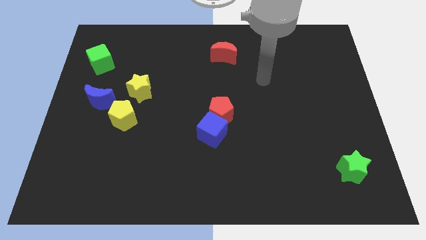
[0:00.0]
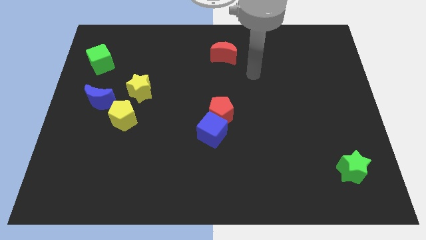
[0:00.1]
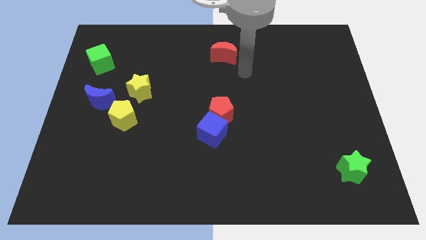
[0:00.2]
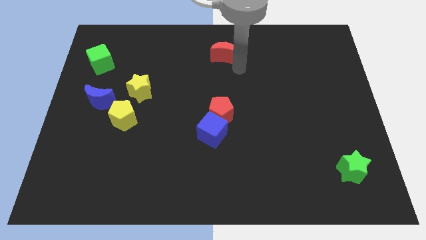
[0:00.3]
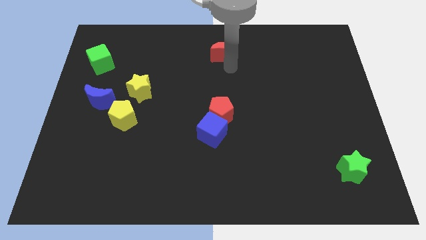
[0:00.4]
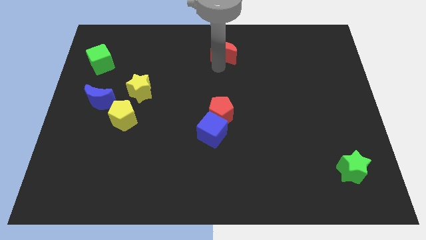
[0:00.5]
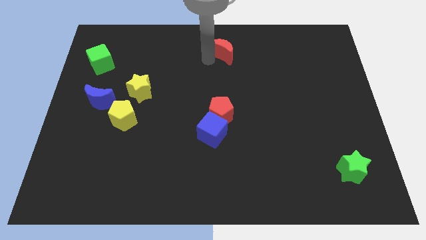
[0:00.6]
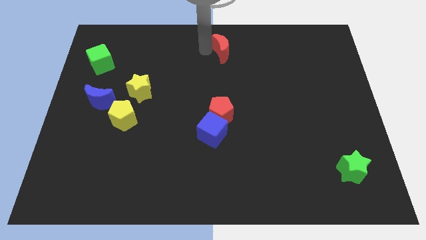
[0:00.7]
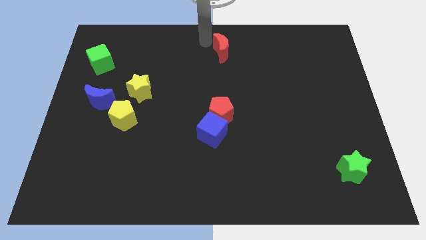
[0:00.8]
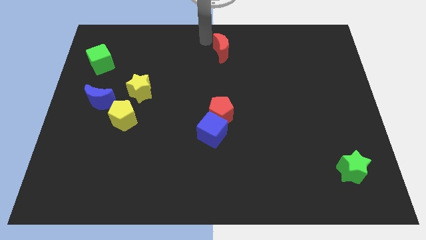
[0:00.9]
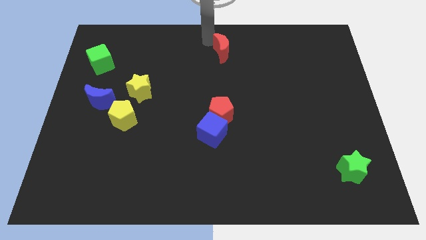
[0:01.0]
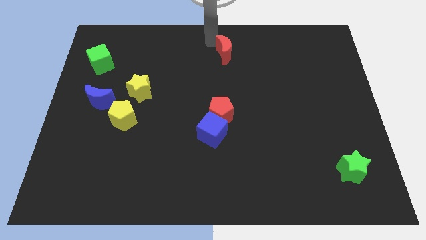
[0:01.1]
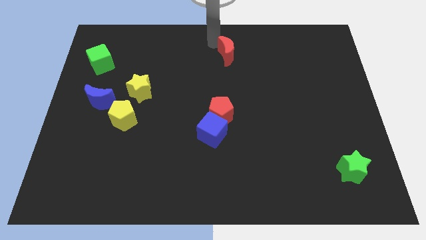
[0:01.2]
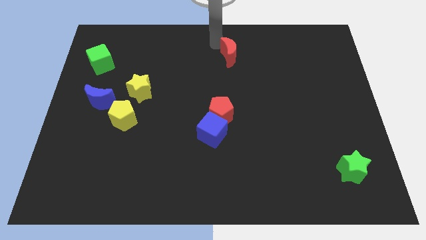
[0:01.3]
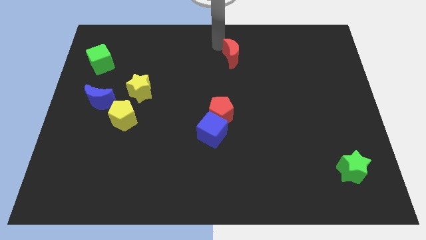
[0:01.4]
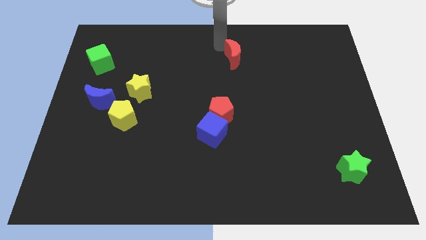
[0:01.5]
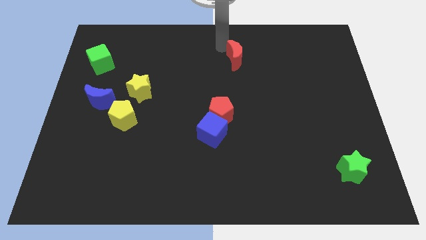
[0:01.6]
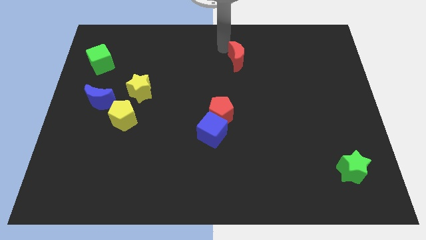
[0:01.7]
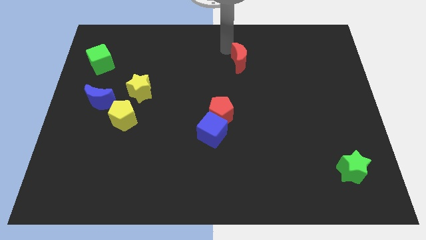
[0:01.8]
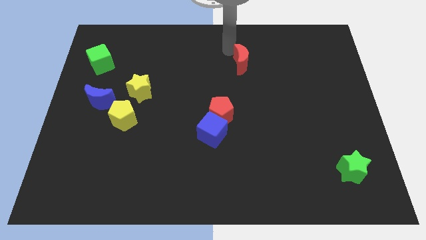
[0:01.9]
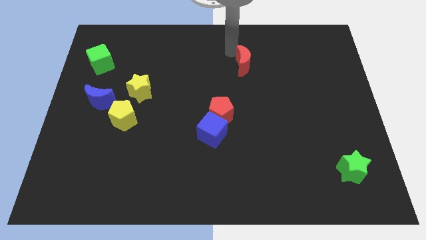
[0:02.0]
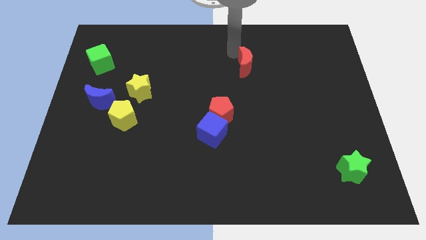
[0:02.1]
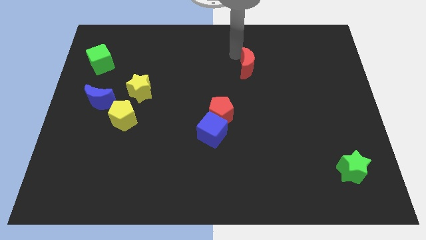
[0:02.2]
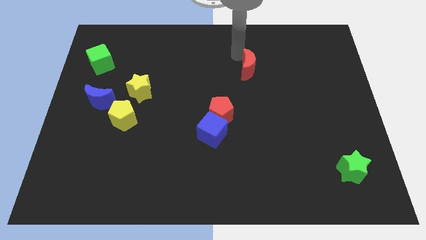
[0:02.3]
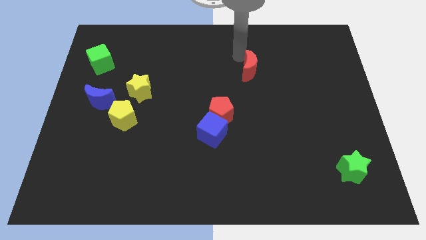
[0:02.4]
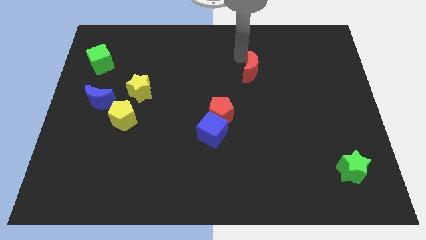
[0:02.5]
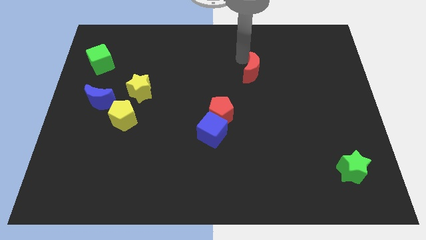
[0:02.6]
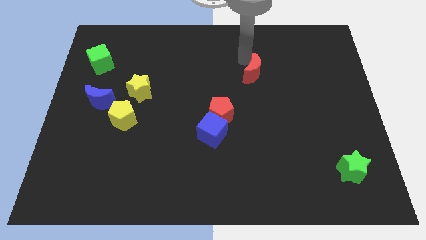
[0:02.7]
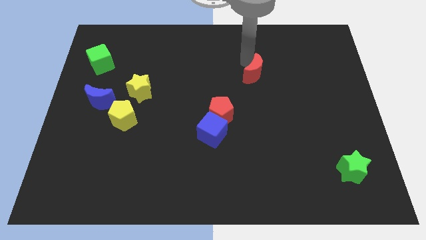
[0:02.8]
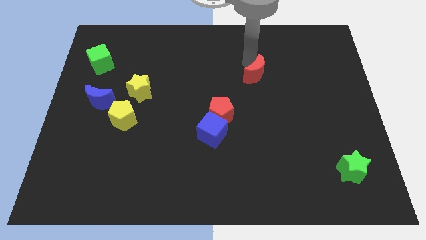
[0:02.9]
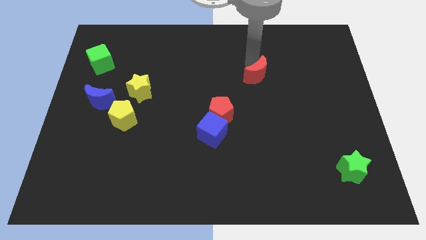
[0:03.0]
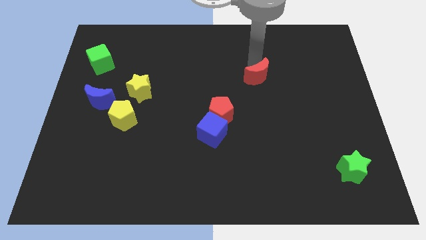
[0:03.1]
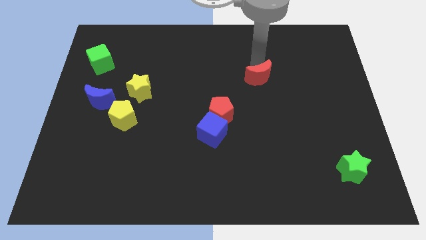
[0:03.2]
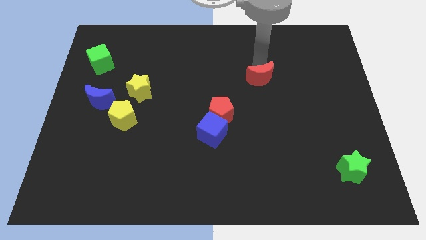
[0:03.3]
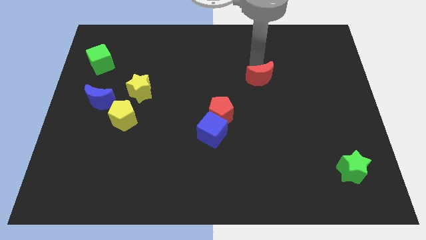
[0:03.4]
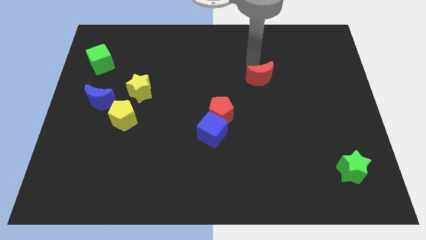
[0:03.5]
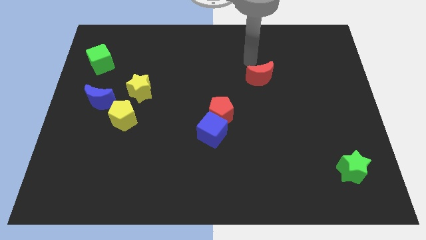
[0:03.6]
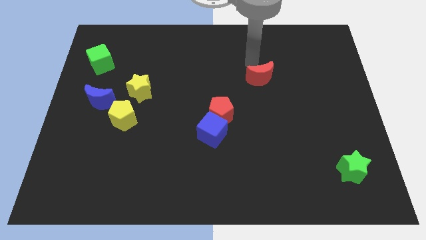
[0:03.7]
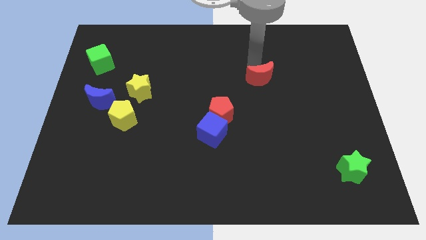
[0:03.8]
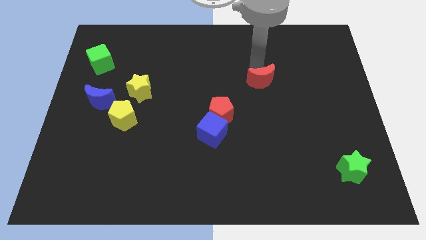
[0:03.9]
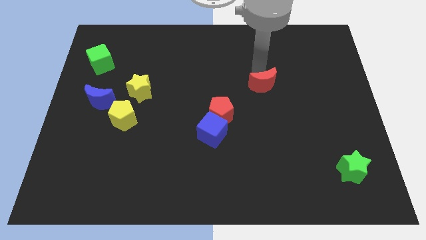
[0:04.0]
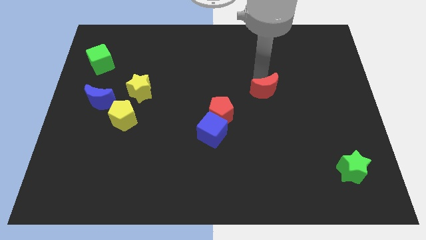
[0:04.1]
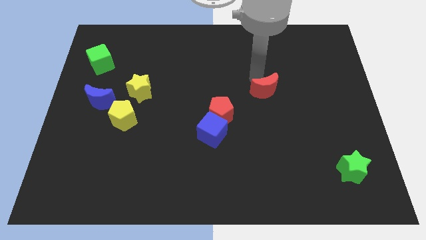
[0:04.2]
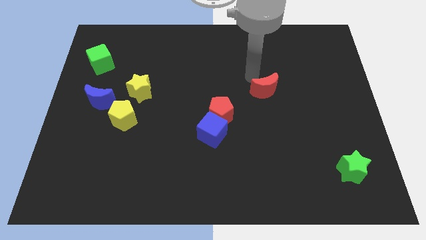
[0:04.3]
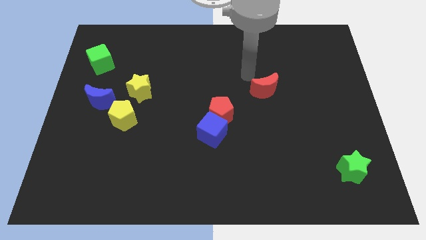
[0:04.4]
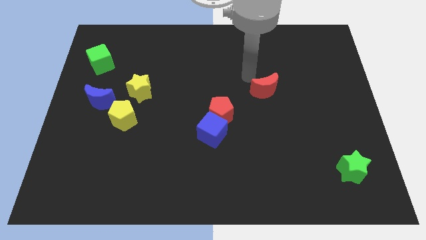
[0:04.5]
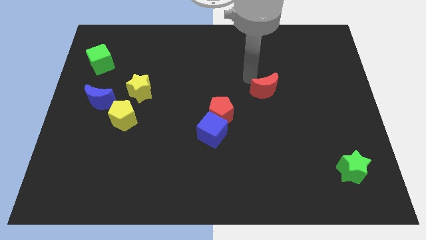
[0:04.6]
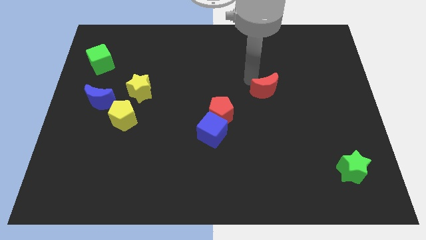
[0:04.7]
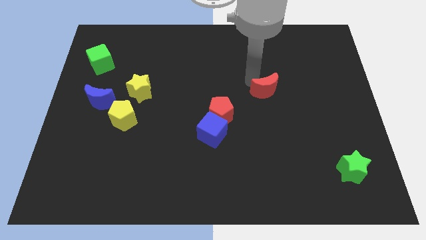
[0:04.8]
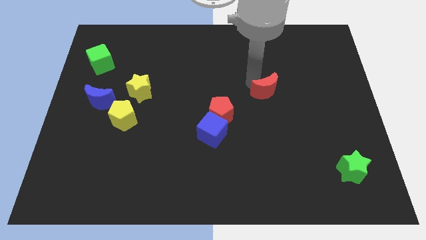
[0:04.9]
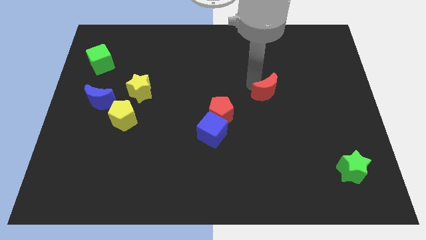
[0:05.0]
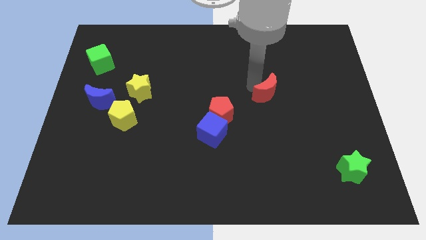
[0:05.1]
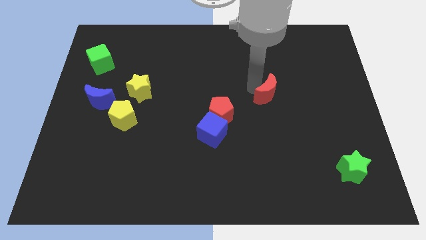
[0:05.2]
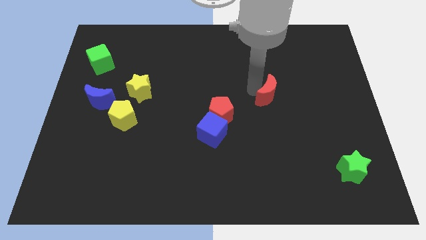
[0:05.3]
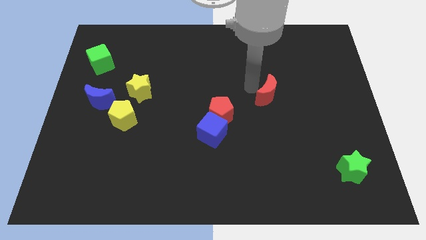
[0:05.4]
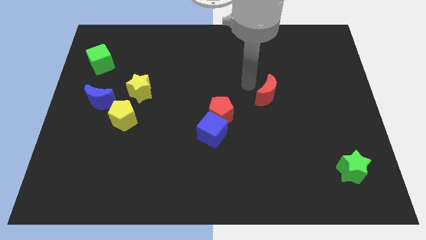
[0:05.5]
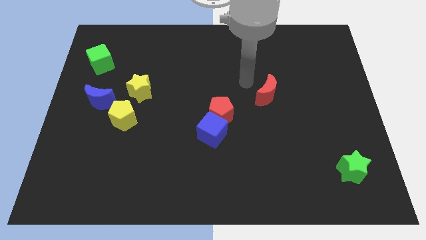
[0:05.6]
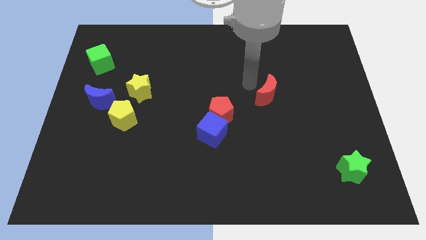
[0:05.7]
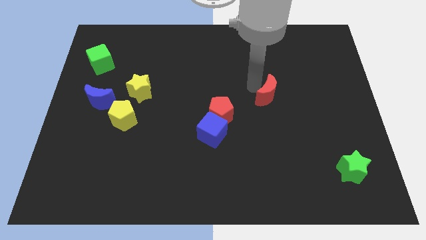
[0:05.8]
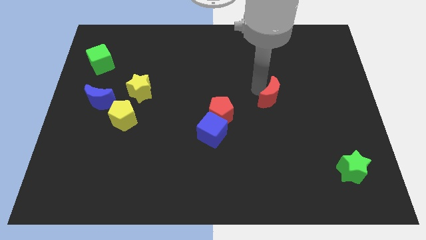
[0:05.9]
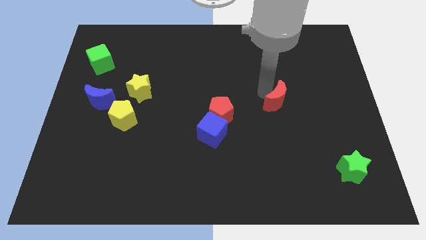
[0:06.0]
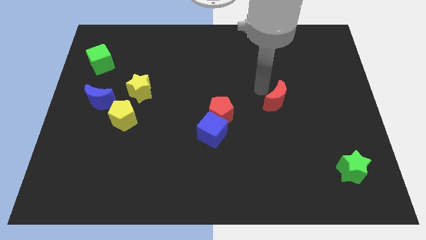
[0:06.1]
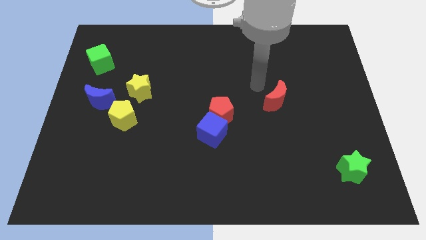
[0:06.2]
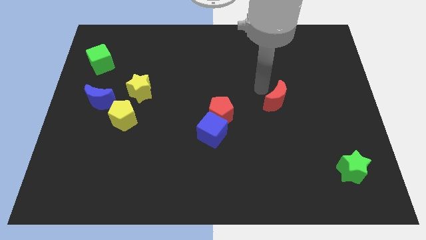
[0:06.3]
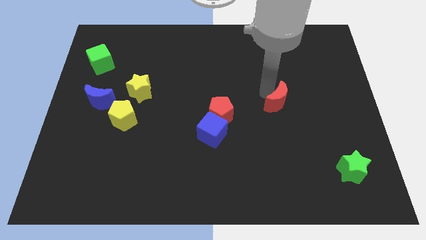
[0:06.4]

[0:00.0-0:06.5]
push the red moon down and to the right diagonally

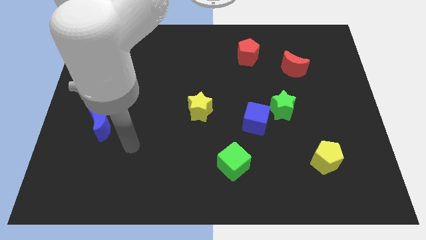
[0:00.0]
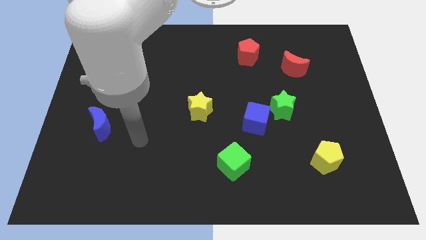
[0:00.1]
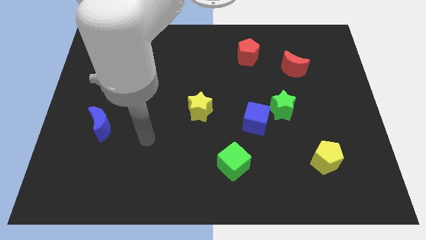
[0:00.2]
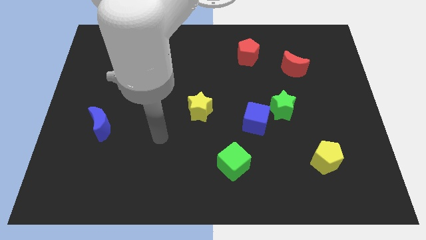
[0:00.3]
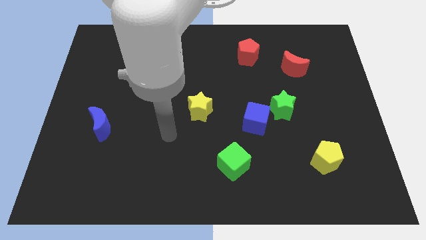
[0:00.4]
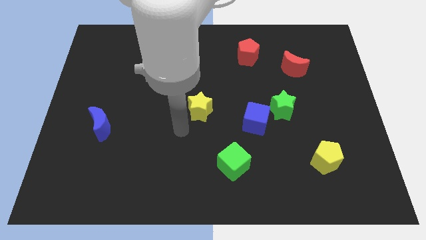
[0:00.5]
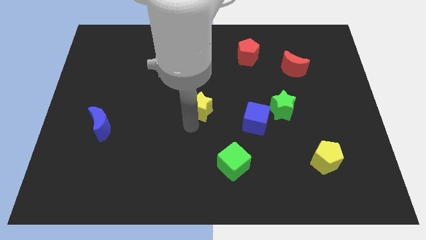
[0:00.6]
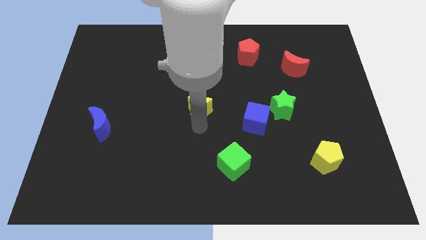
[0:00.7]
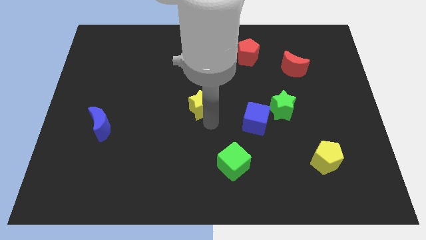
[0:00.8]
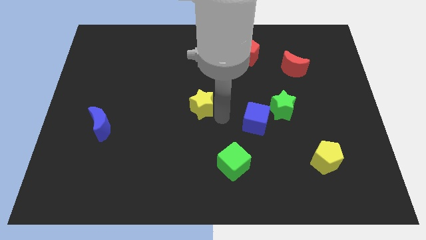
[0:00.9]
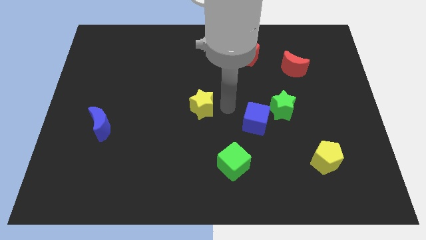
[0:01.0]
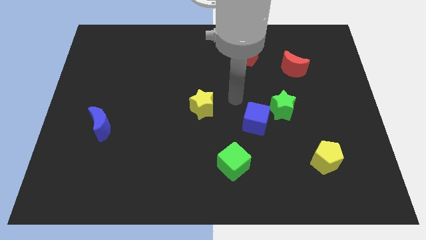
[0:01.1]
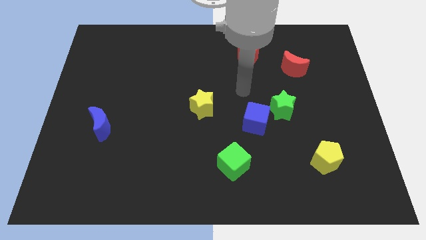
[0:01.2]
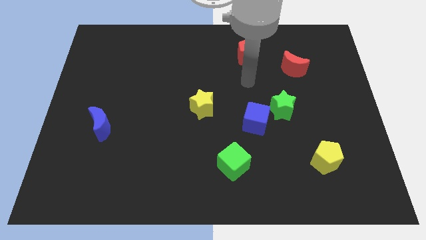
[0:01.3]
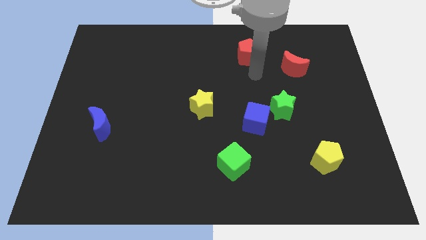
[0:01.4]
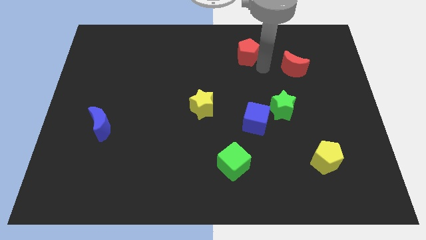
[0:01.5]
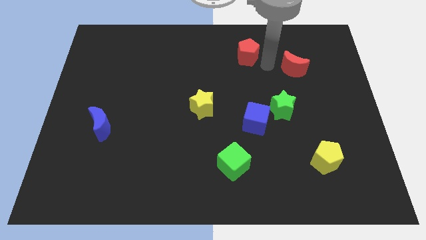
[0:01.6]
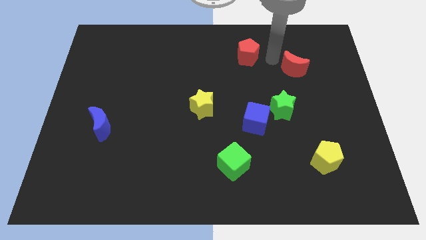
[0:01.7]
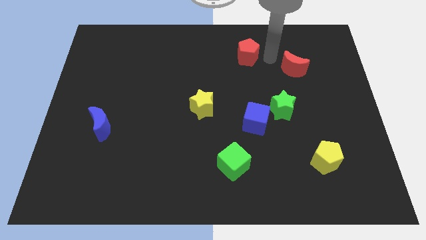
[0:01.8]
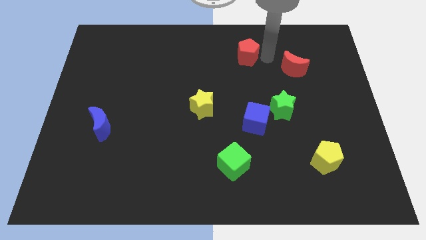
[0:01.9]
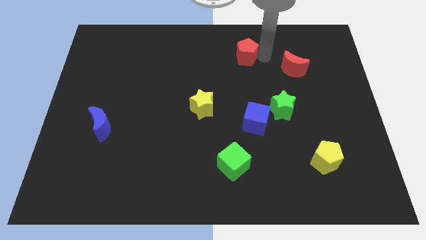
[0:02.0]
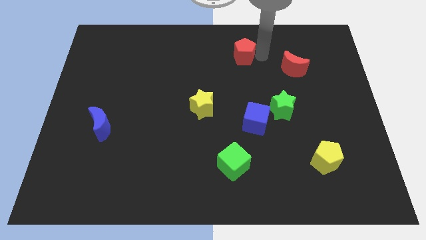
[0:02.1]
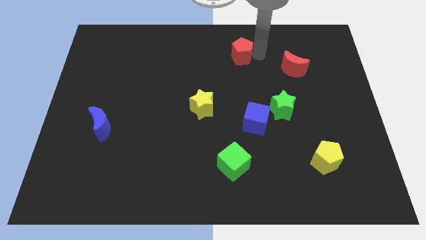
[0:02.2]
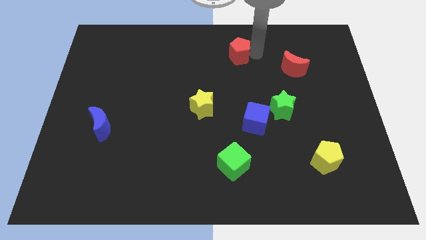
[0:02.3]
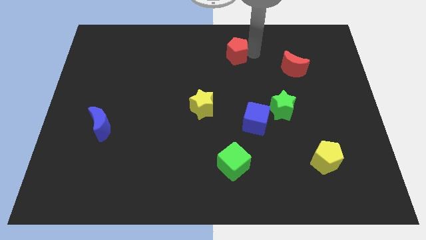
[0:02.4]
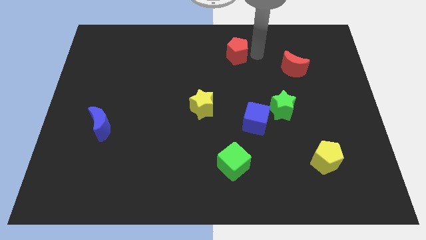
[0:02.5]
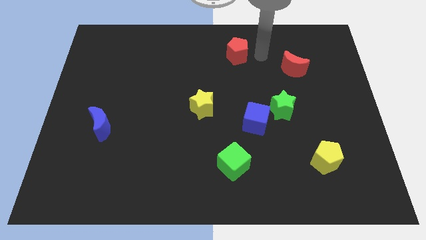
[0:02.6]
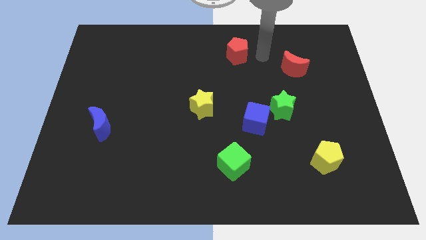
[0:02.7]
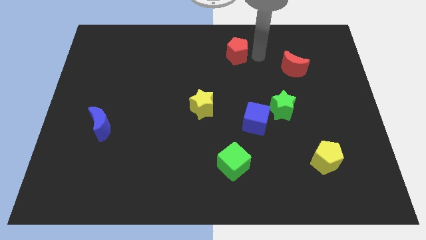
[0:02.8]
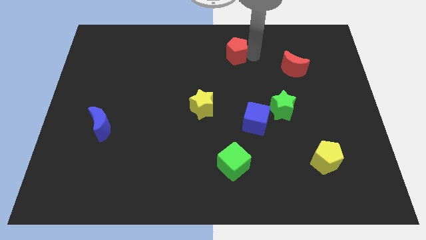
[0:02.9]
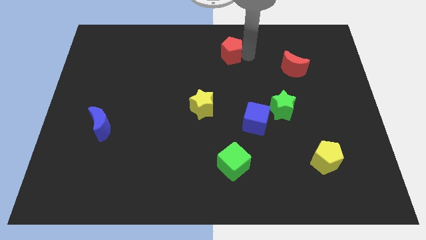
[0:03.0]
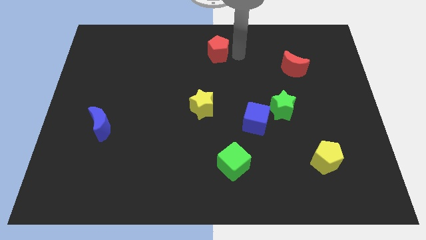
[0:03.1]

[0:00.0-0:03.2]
slightly push the red pentagon to the left
